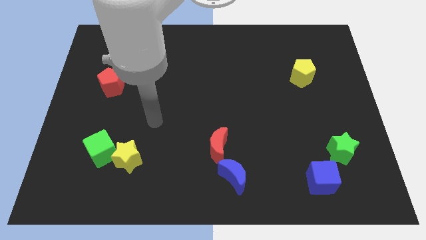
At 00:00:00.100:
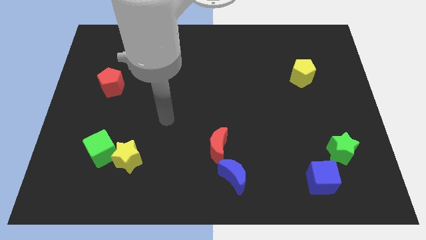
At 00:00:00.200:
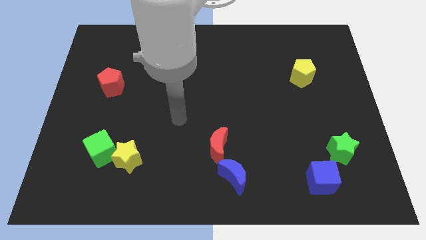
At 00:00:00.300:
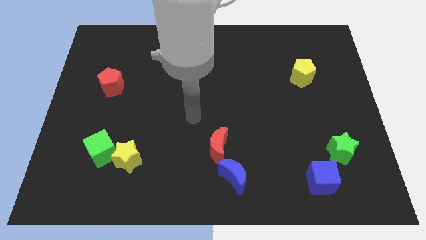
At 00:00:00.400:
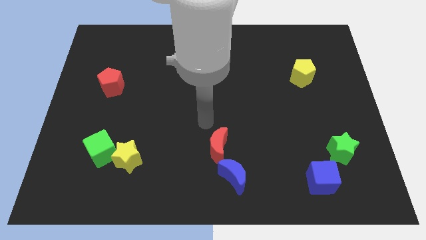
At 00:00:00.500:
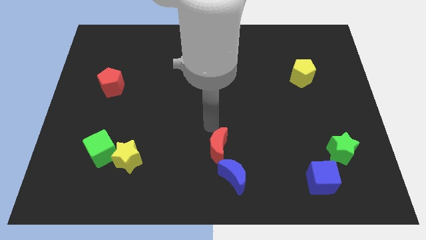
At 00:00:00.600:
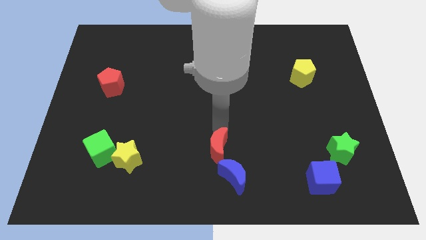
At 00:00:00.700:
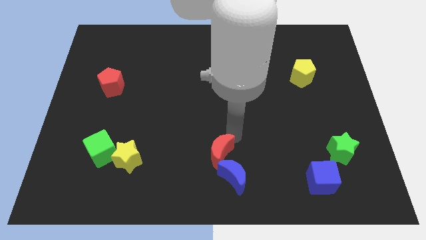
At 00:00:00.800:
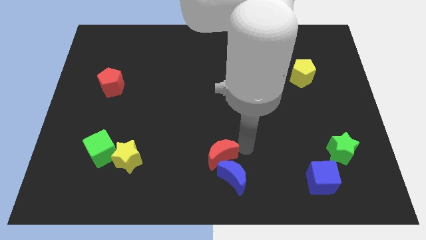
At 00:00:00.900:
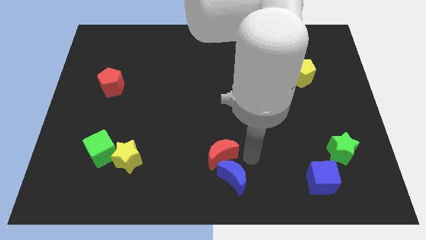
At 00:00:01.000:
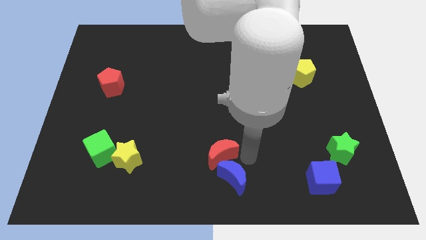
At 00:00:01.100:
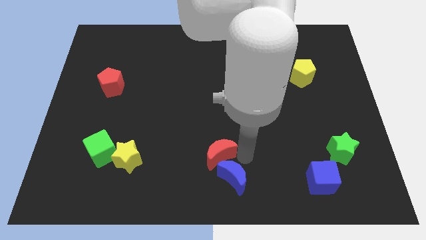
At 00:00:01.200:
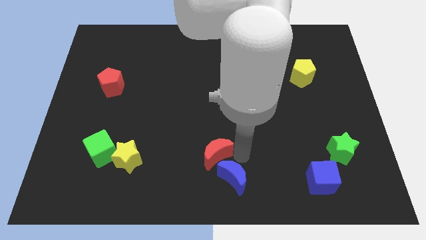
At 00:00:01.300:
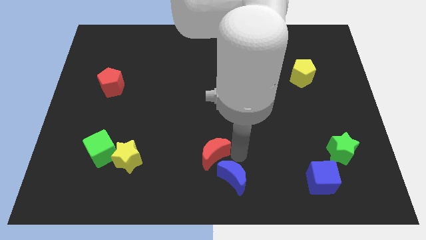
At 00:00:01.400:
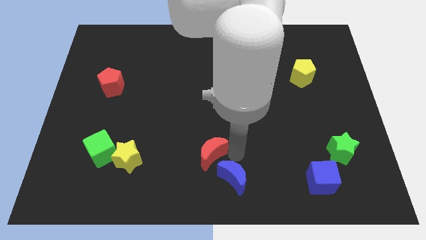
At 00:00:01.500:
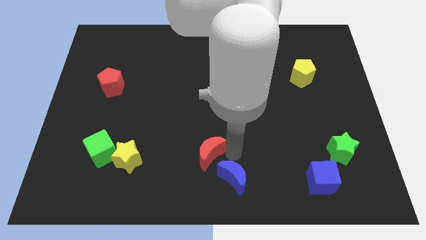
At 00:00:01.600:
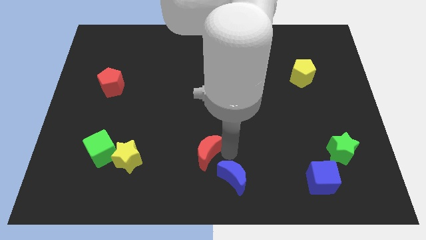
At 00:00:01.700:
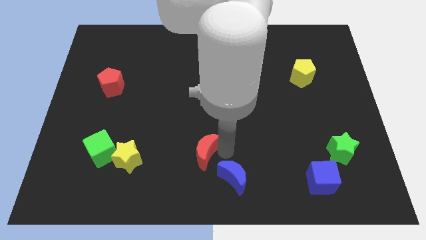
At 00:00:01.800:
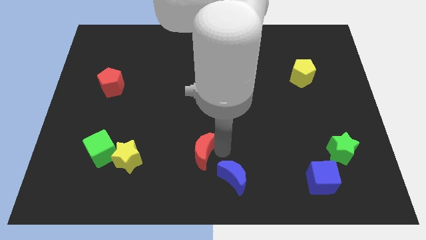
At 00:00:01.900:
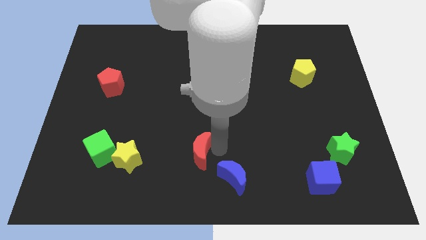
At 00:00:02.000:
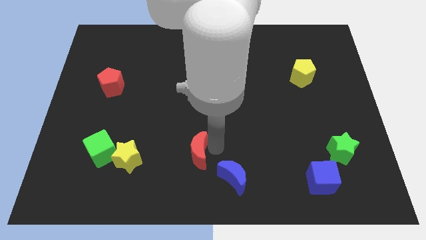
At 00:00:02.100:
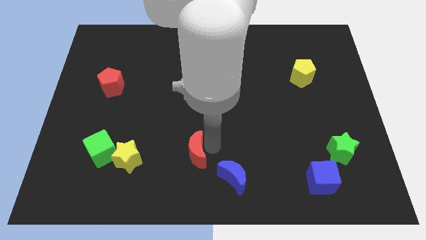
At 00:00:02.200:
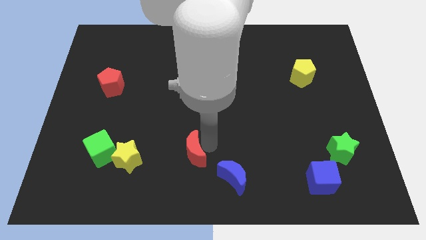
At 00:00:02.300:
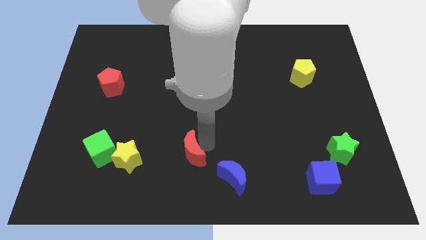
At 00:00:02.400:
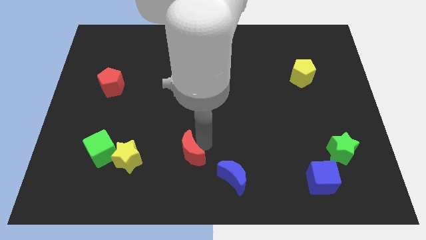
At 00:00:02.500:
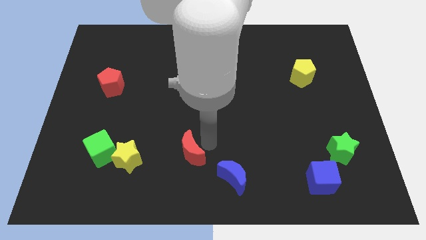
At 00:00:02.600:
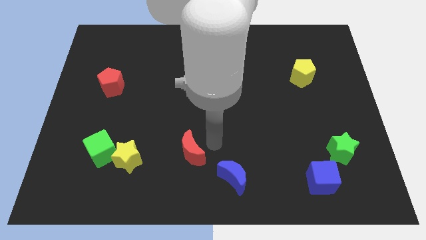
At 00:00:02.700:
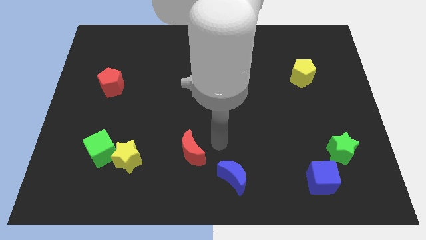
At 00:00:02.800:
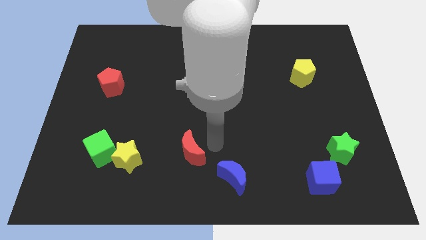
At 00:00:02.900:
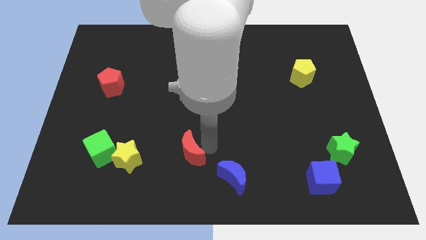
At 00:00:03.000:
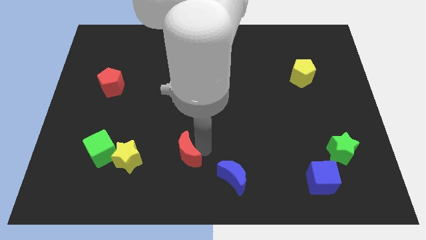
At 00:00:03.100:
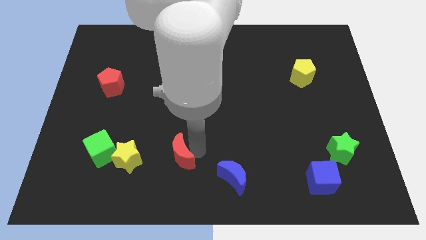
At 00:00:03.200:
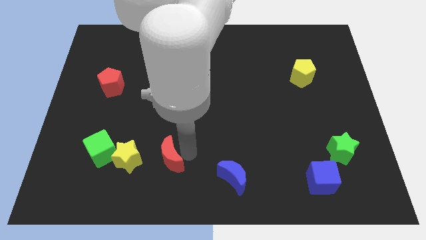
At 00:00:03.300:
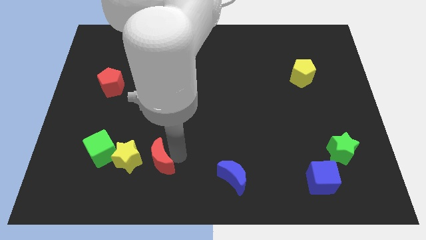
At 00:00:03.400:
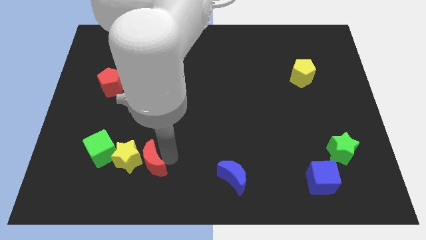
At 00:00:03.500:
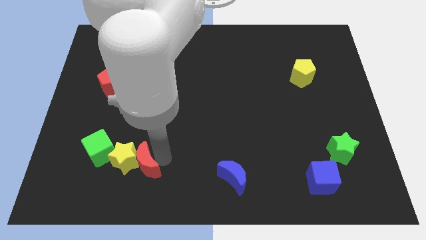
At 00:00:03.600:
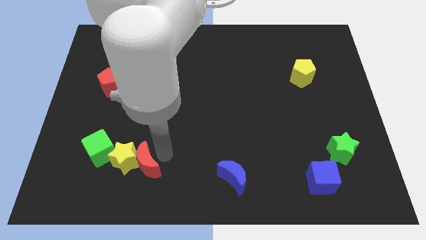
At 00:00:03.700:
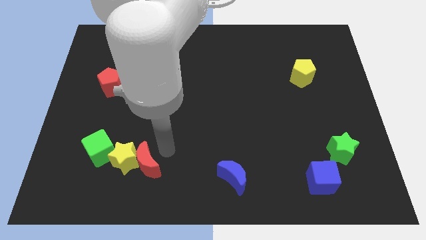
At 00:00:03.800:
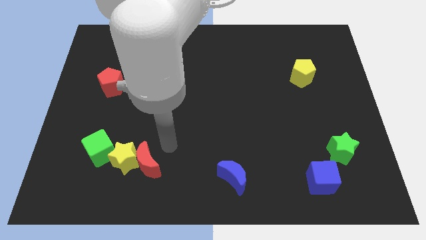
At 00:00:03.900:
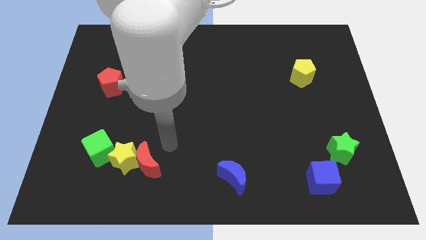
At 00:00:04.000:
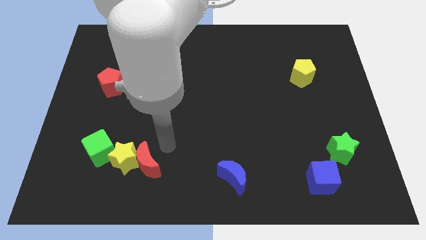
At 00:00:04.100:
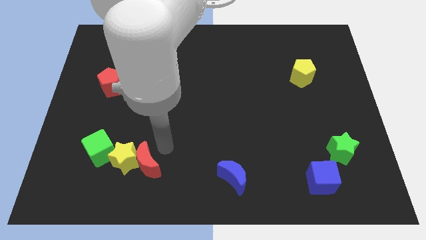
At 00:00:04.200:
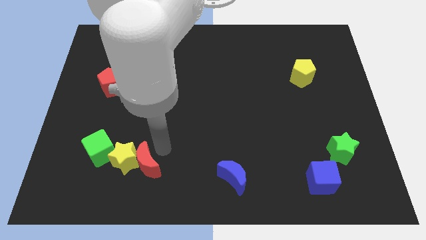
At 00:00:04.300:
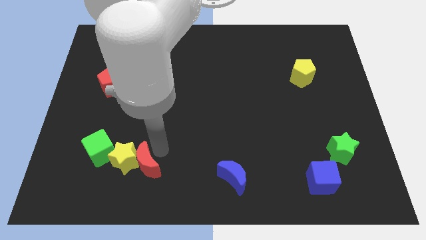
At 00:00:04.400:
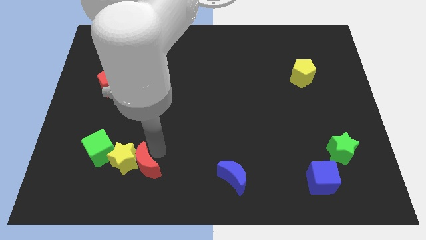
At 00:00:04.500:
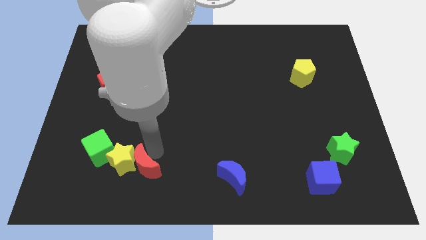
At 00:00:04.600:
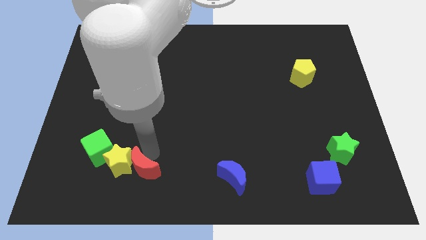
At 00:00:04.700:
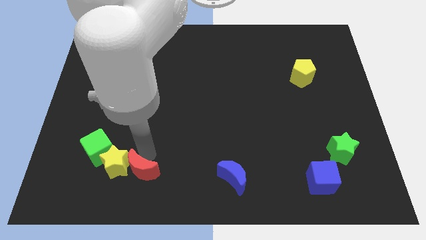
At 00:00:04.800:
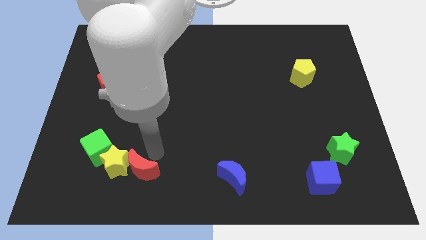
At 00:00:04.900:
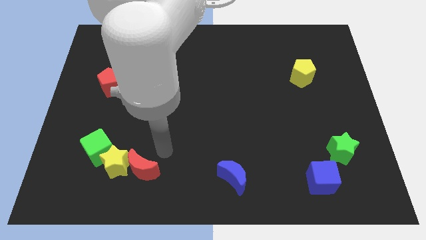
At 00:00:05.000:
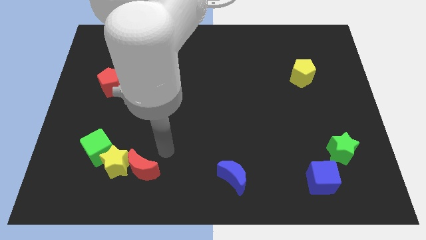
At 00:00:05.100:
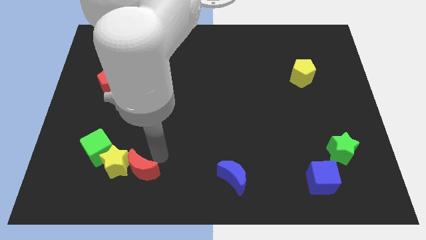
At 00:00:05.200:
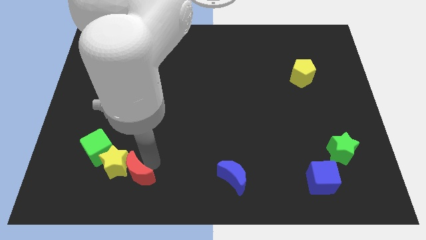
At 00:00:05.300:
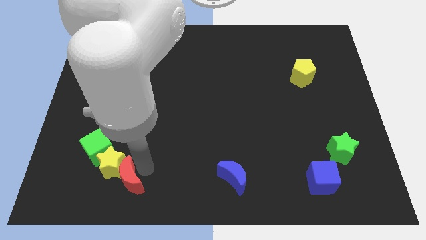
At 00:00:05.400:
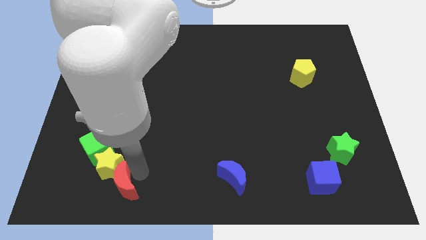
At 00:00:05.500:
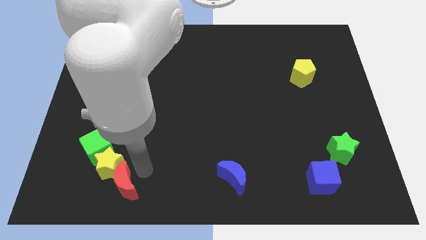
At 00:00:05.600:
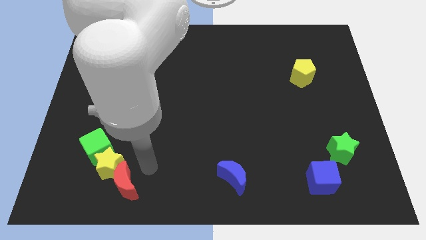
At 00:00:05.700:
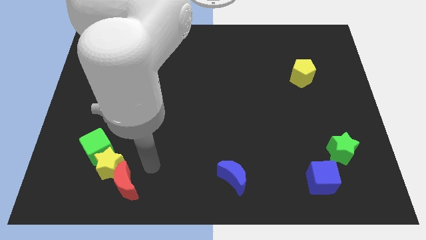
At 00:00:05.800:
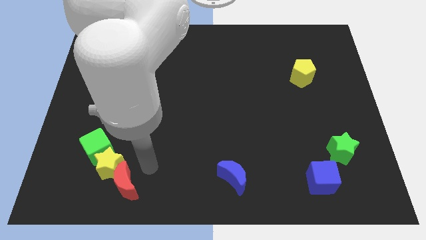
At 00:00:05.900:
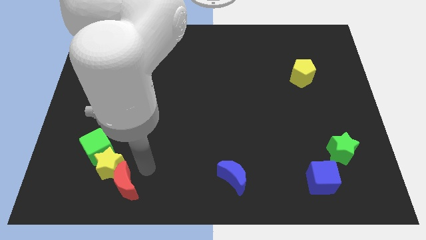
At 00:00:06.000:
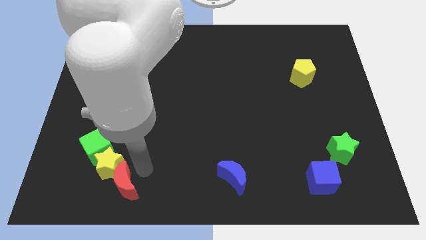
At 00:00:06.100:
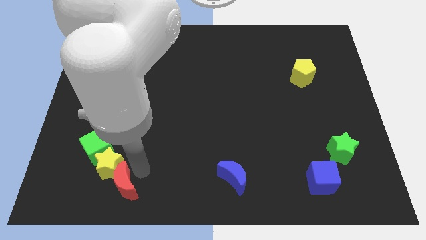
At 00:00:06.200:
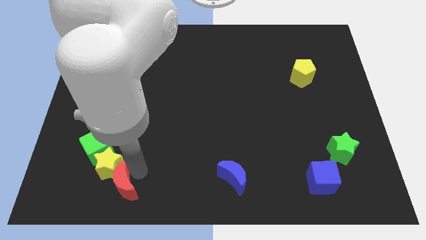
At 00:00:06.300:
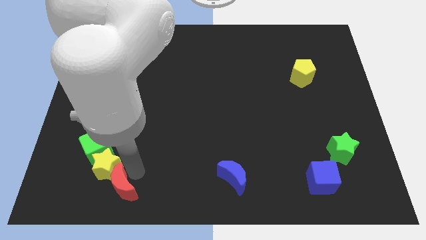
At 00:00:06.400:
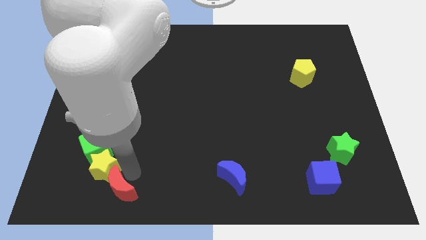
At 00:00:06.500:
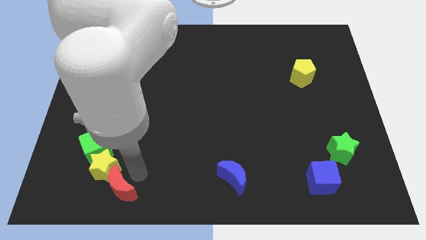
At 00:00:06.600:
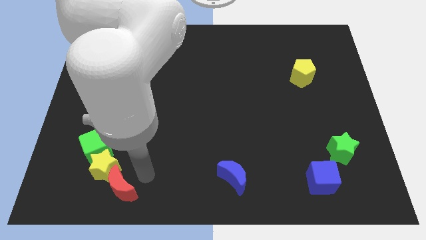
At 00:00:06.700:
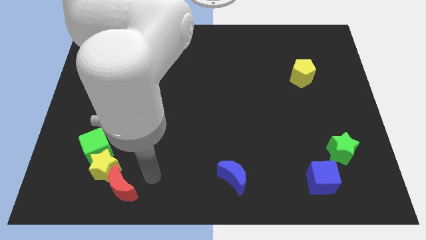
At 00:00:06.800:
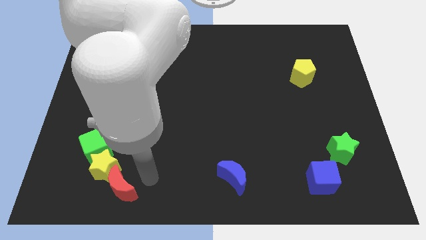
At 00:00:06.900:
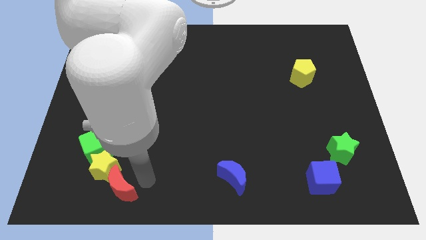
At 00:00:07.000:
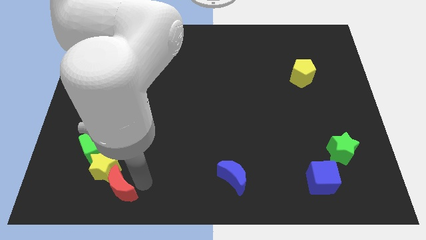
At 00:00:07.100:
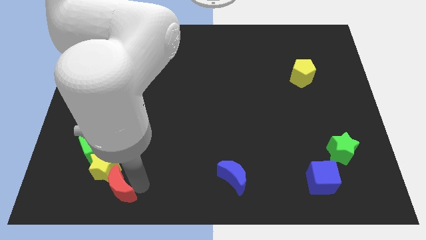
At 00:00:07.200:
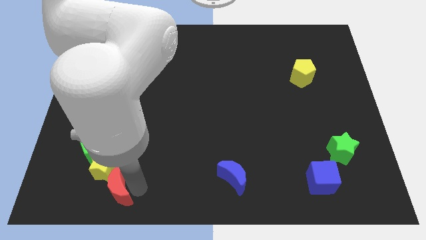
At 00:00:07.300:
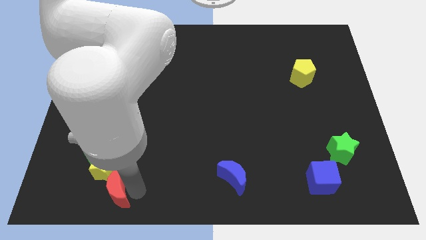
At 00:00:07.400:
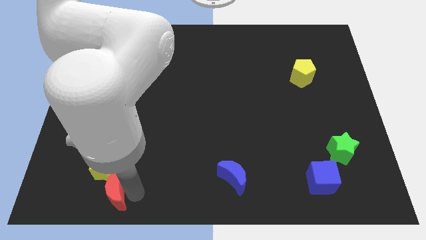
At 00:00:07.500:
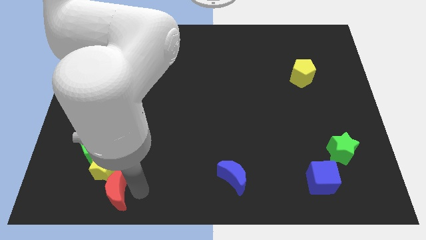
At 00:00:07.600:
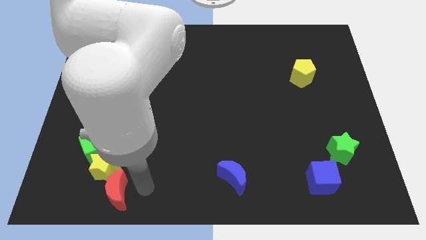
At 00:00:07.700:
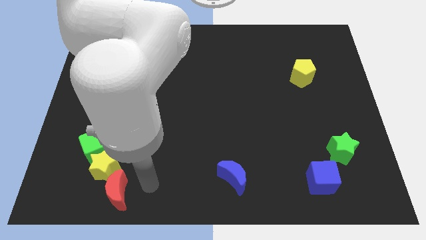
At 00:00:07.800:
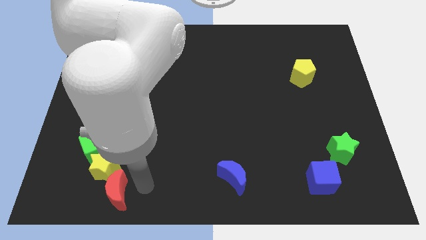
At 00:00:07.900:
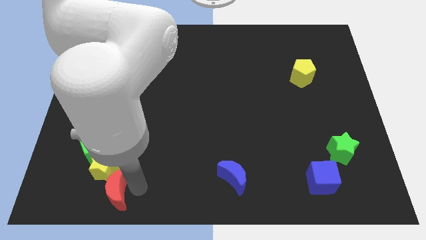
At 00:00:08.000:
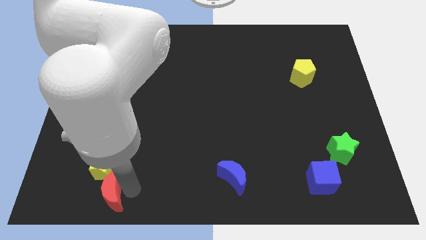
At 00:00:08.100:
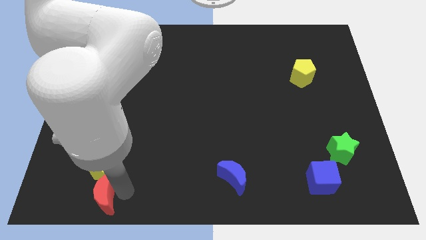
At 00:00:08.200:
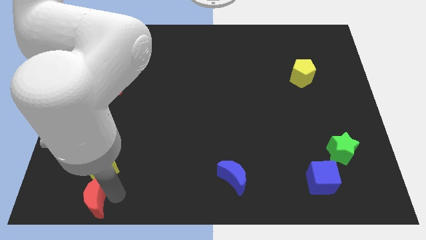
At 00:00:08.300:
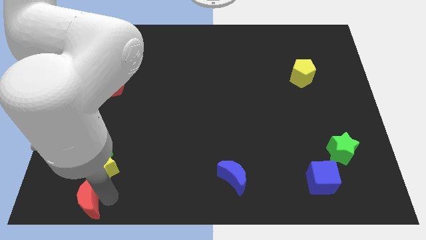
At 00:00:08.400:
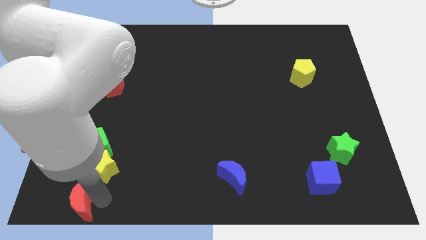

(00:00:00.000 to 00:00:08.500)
push the red moon to the bottom left of the board
